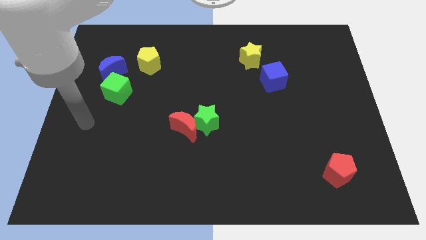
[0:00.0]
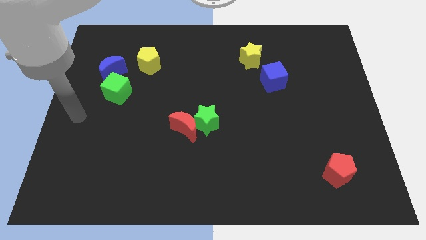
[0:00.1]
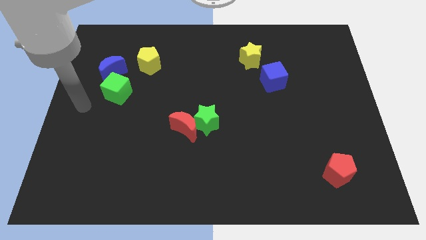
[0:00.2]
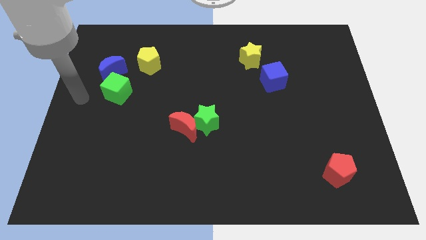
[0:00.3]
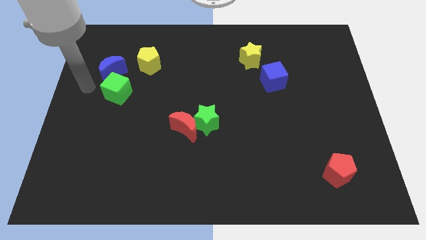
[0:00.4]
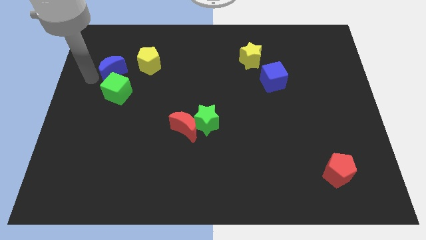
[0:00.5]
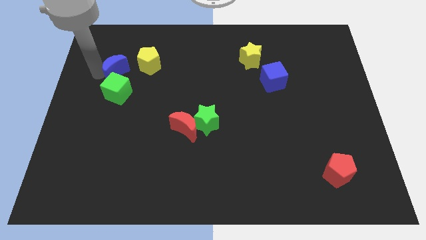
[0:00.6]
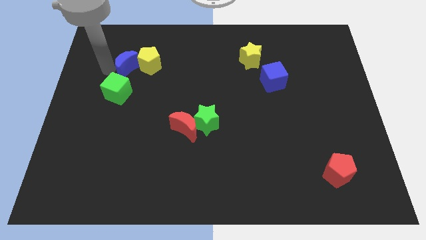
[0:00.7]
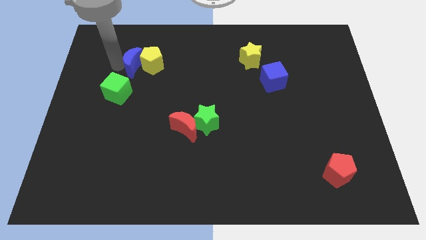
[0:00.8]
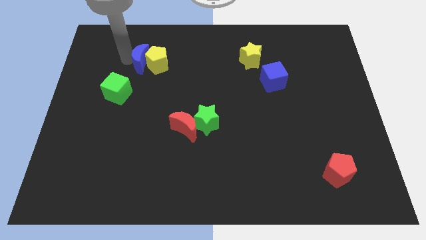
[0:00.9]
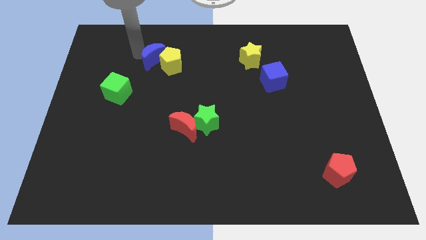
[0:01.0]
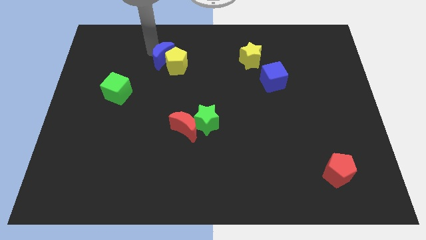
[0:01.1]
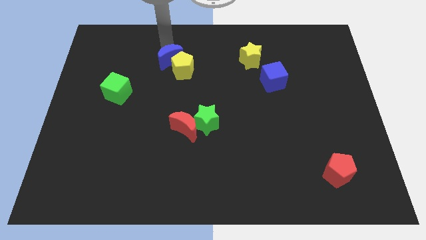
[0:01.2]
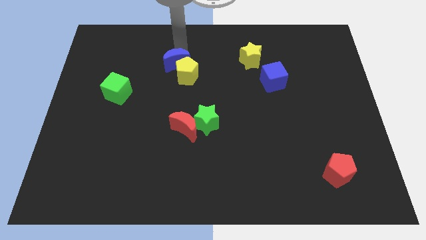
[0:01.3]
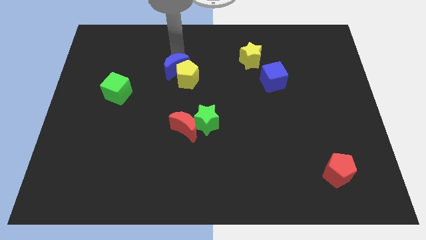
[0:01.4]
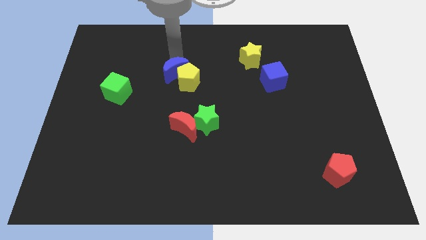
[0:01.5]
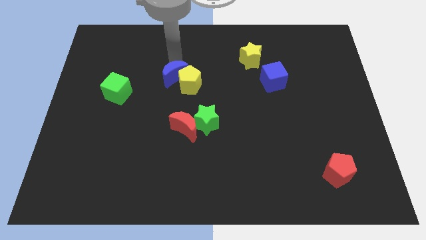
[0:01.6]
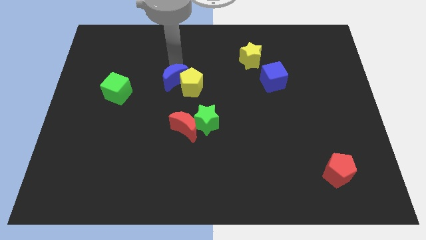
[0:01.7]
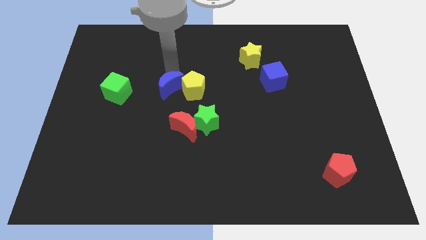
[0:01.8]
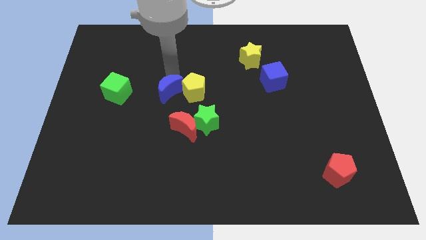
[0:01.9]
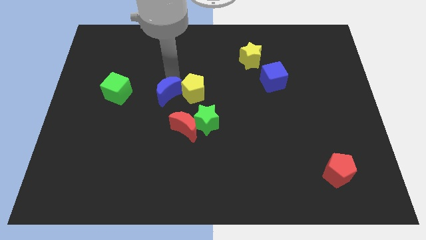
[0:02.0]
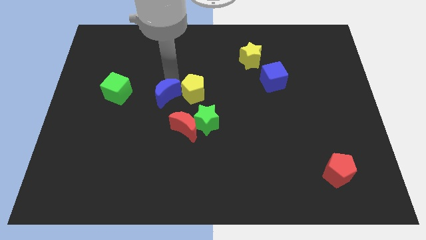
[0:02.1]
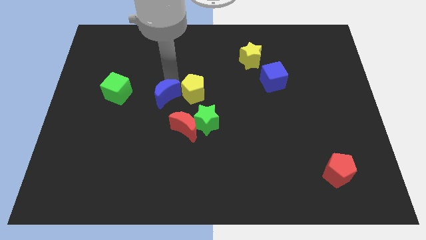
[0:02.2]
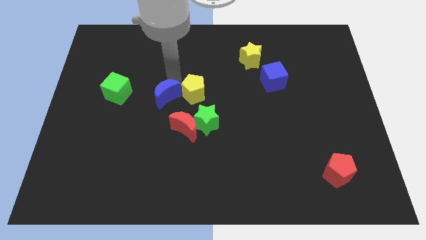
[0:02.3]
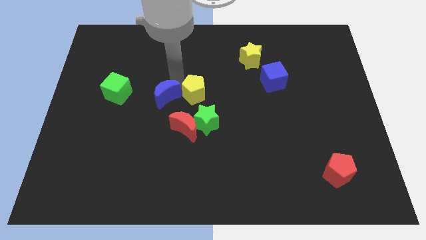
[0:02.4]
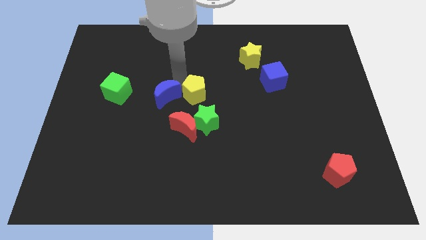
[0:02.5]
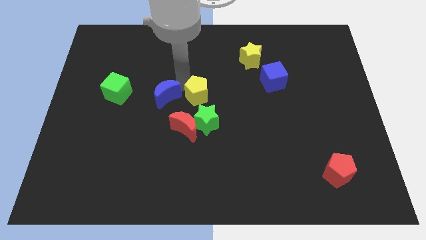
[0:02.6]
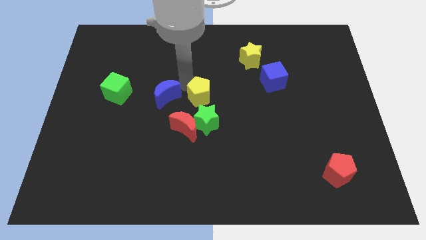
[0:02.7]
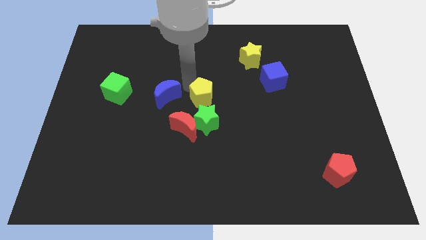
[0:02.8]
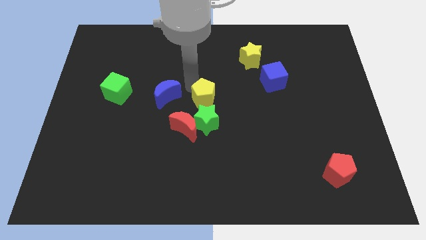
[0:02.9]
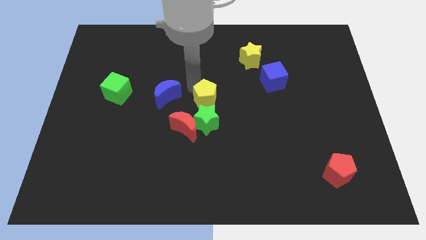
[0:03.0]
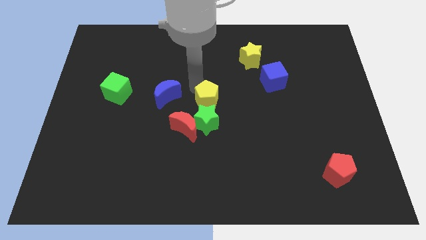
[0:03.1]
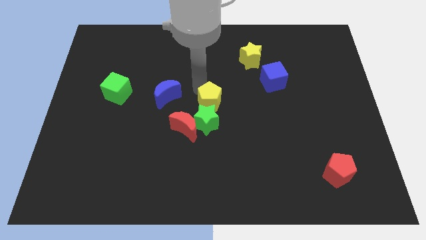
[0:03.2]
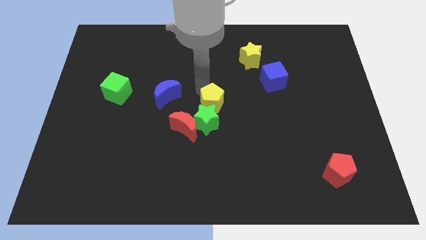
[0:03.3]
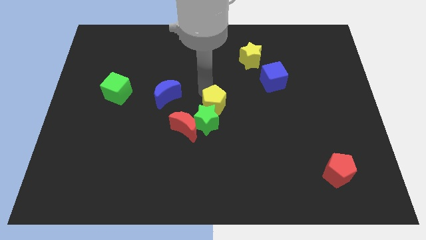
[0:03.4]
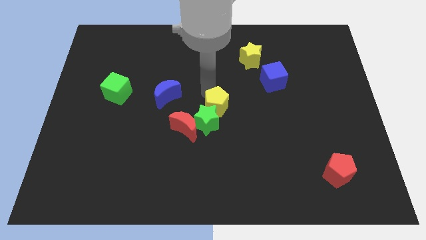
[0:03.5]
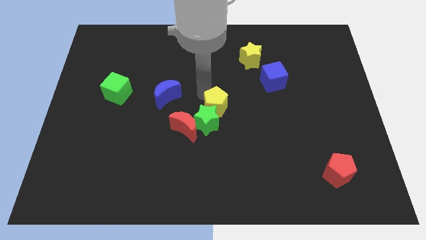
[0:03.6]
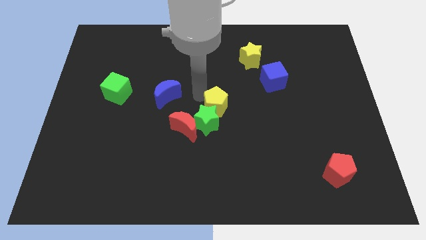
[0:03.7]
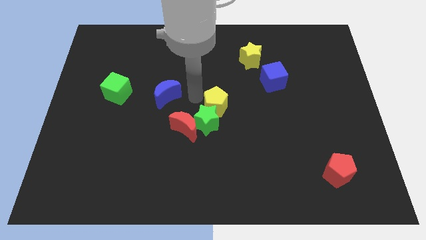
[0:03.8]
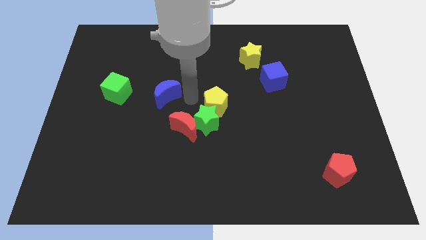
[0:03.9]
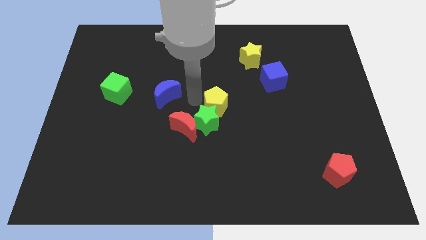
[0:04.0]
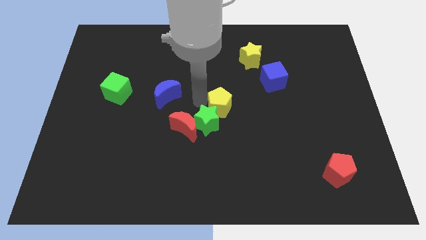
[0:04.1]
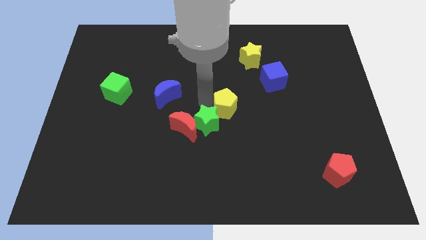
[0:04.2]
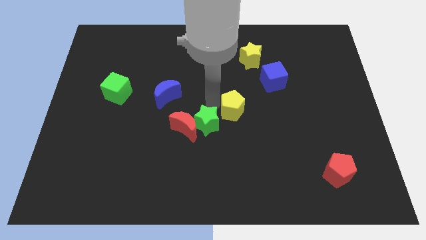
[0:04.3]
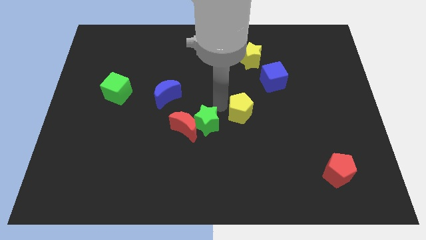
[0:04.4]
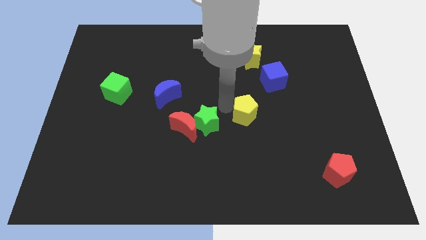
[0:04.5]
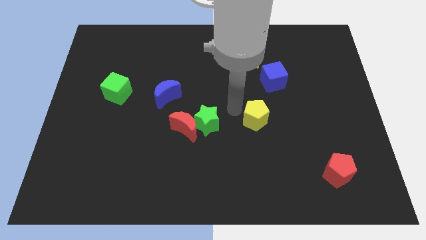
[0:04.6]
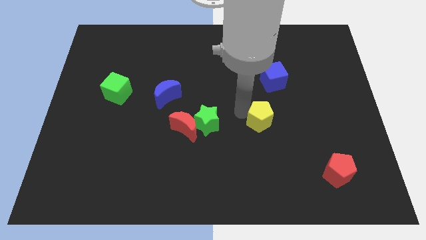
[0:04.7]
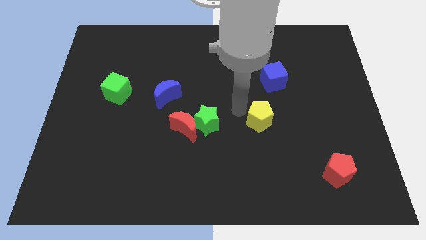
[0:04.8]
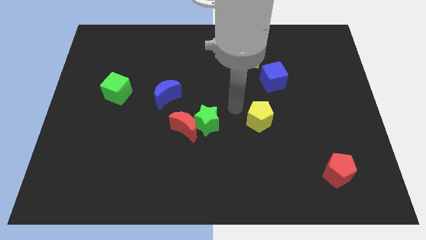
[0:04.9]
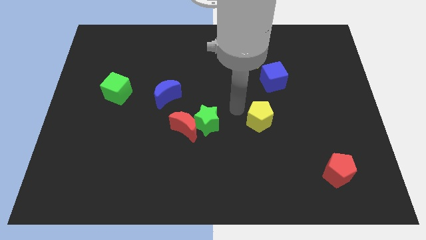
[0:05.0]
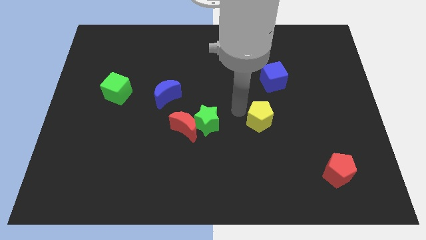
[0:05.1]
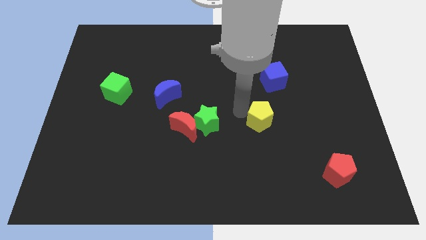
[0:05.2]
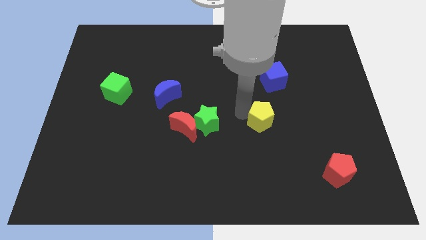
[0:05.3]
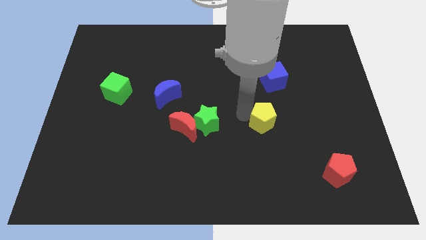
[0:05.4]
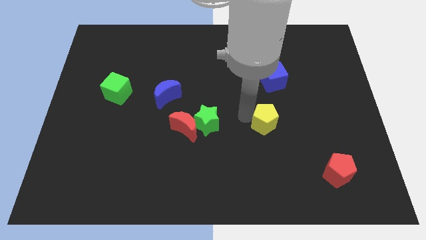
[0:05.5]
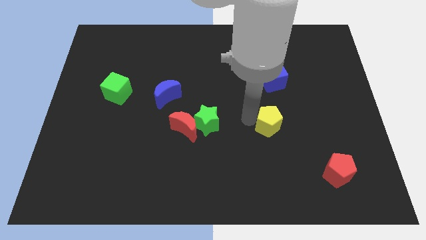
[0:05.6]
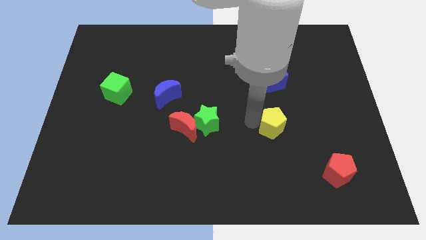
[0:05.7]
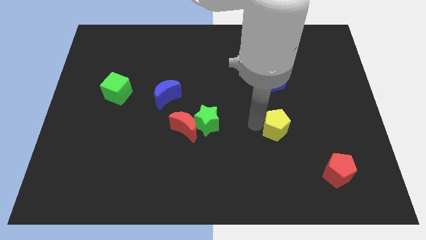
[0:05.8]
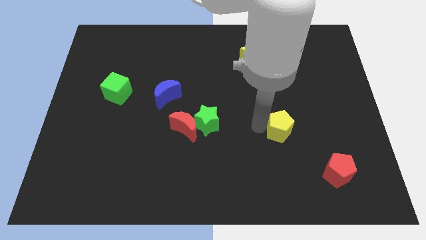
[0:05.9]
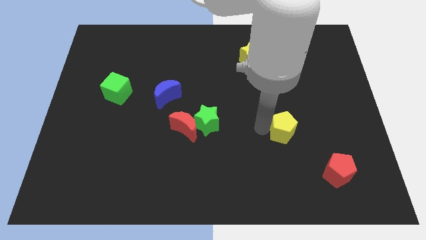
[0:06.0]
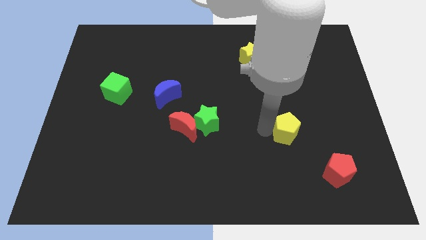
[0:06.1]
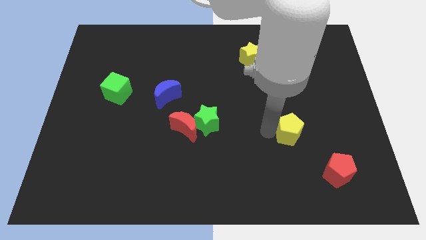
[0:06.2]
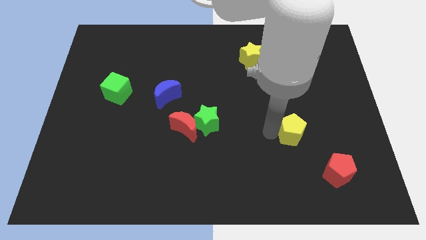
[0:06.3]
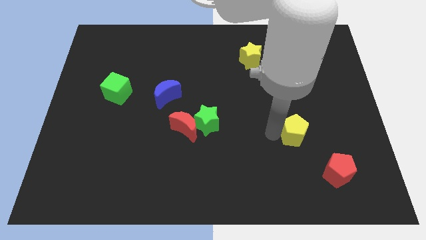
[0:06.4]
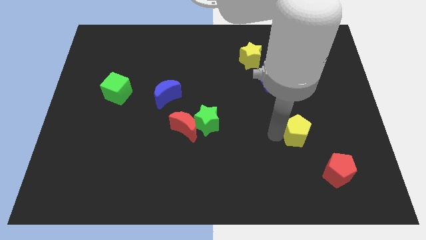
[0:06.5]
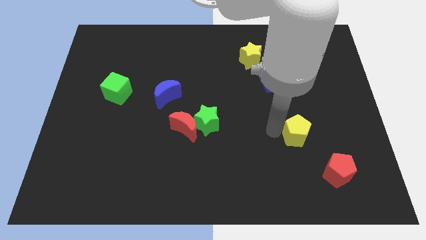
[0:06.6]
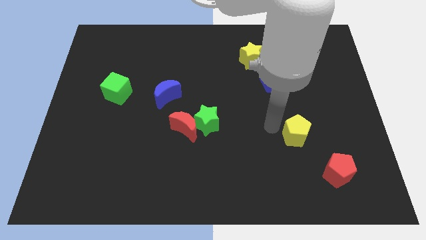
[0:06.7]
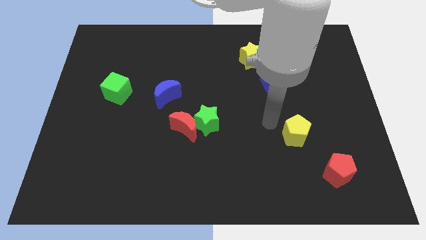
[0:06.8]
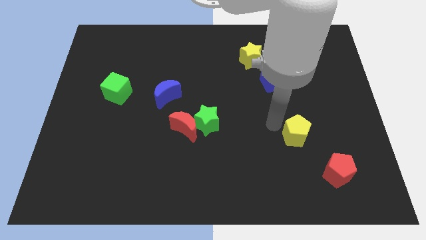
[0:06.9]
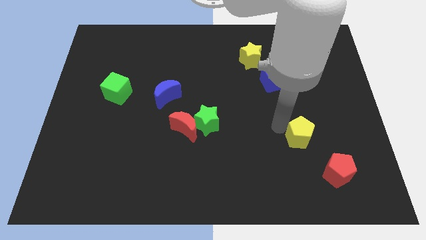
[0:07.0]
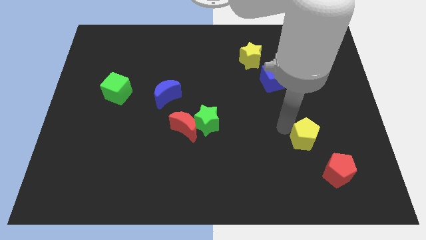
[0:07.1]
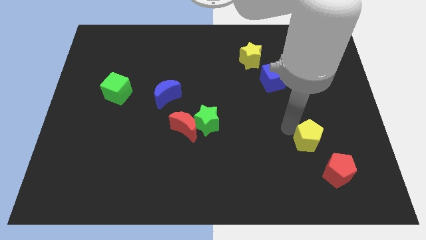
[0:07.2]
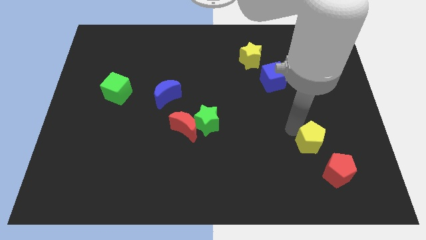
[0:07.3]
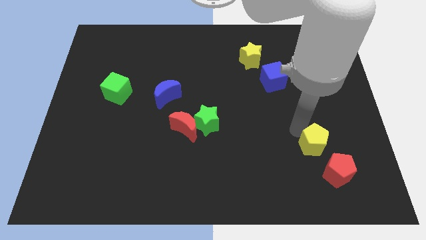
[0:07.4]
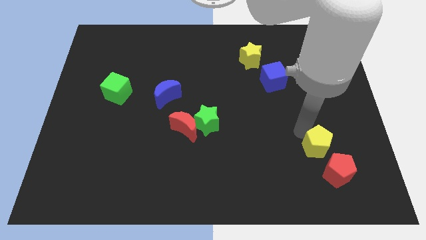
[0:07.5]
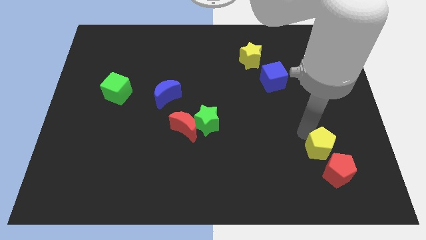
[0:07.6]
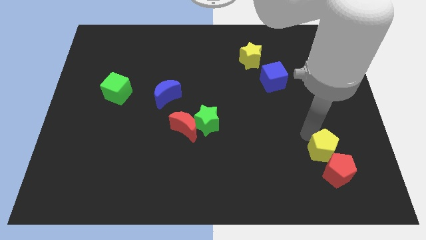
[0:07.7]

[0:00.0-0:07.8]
slide the yellow pentagon to the red pentagon
